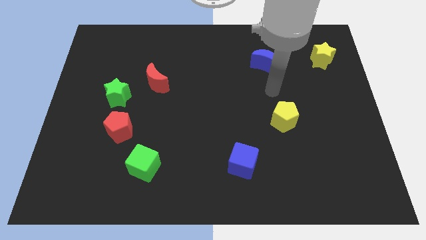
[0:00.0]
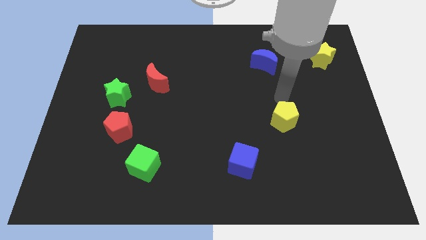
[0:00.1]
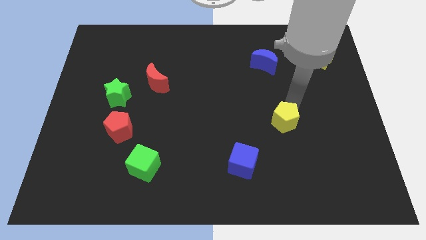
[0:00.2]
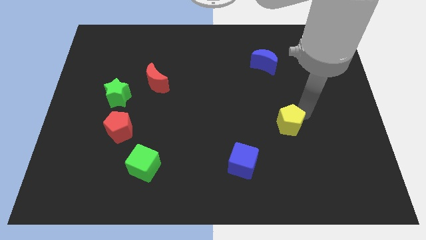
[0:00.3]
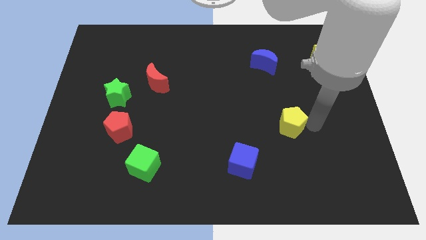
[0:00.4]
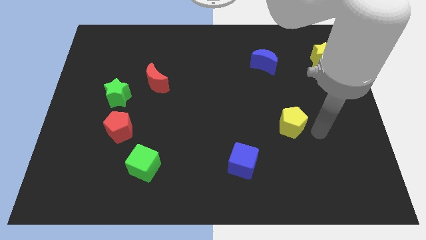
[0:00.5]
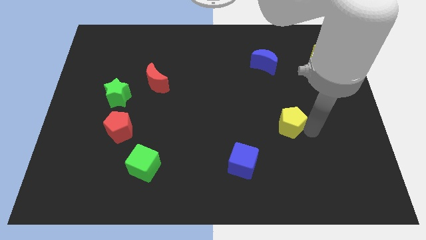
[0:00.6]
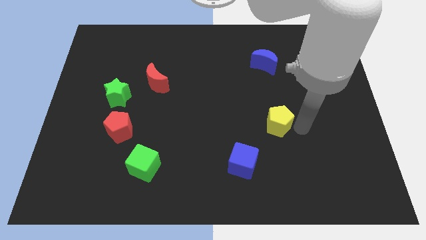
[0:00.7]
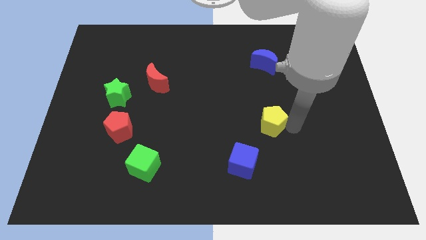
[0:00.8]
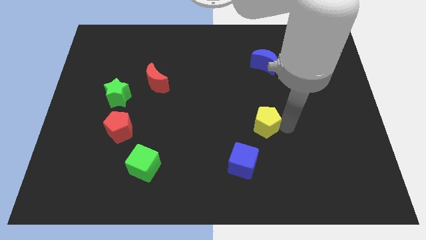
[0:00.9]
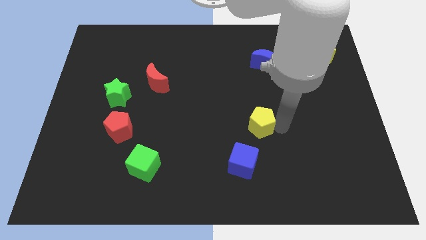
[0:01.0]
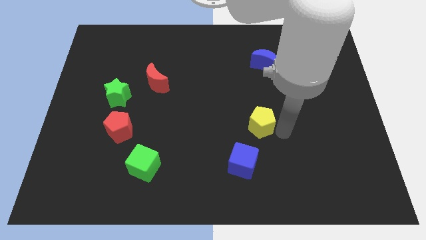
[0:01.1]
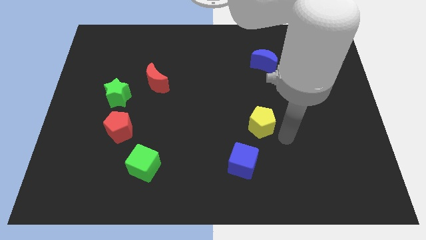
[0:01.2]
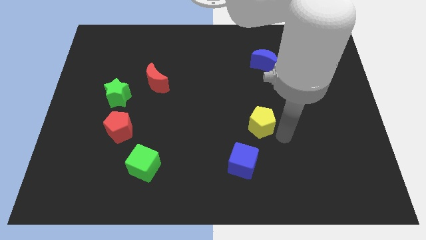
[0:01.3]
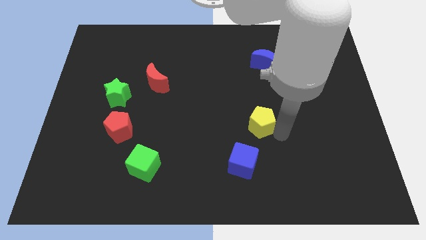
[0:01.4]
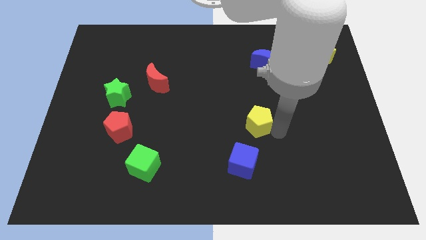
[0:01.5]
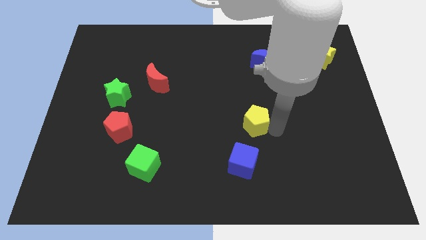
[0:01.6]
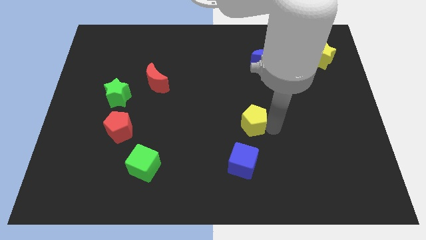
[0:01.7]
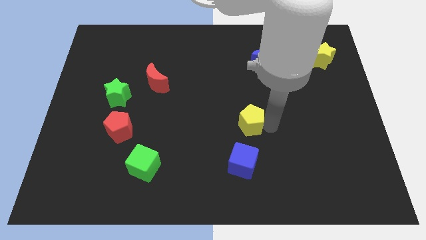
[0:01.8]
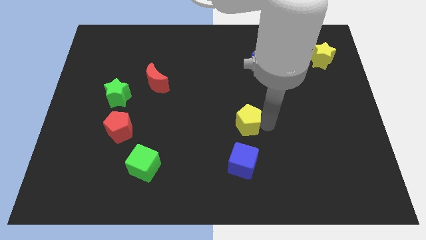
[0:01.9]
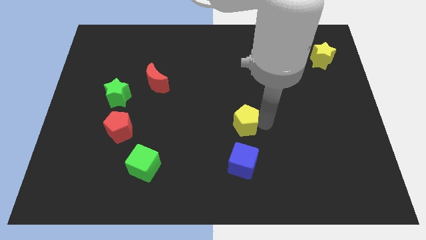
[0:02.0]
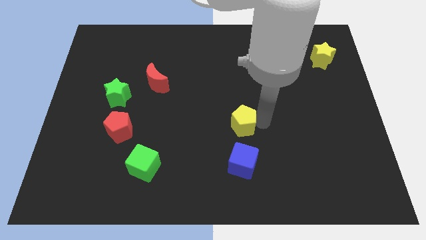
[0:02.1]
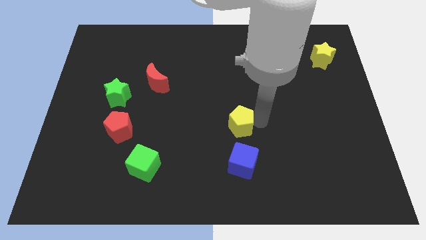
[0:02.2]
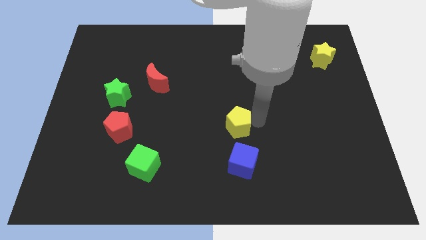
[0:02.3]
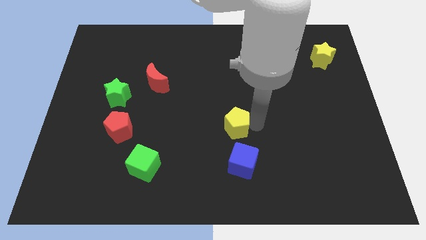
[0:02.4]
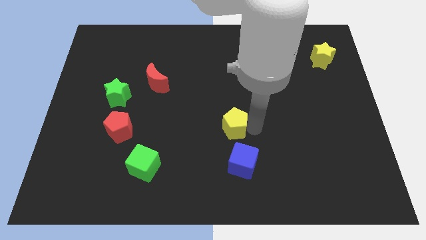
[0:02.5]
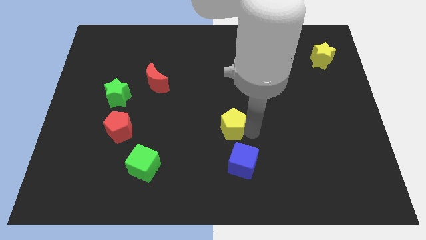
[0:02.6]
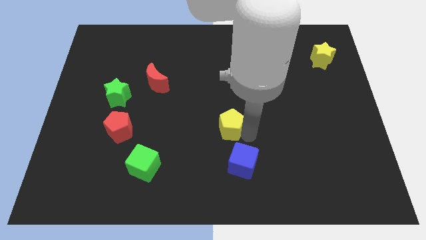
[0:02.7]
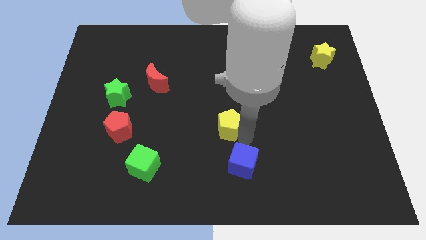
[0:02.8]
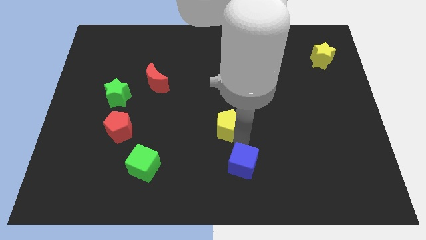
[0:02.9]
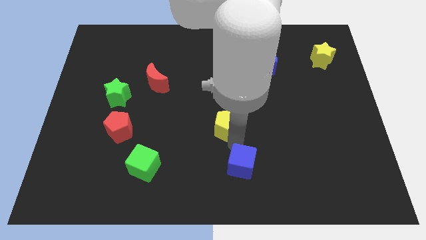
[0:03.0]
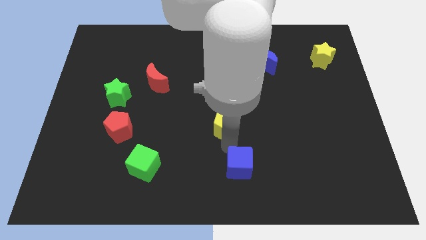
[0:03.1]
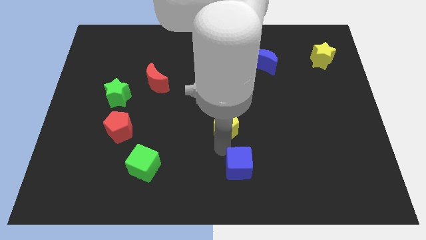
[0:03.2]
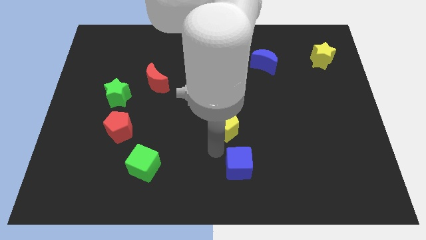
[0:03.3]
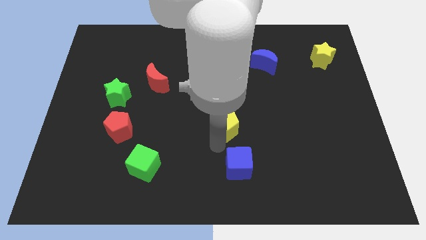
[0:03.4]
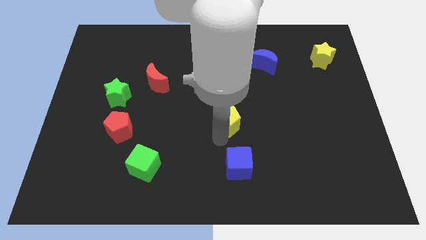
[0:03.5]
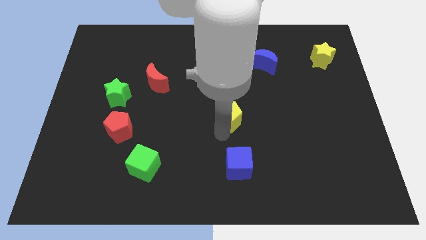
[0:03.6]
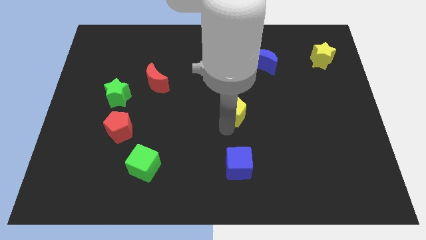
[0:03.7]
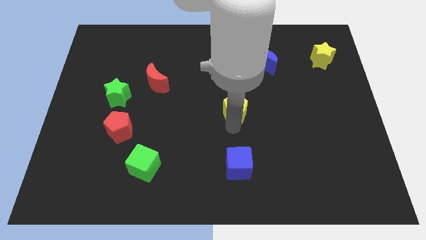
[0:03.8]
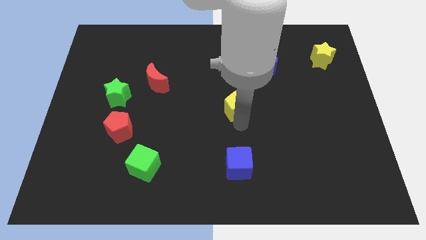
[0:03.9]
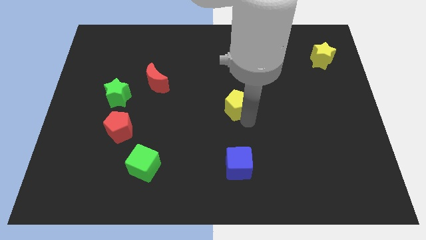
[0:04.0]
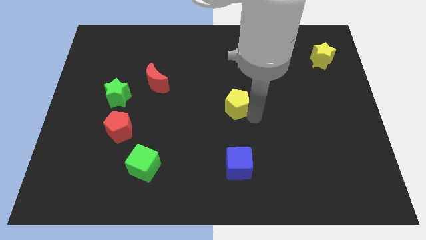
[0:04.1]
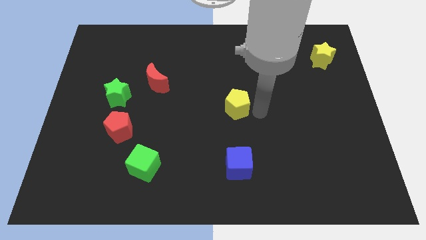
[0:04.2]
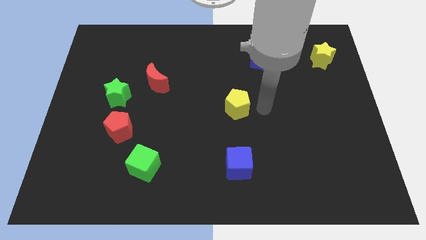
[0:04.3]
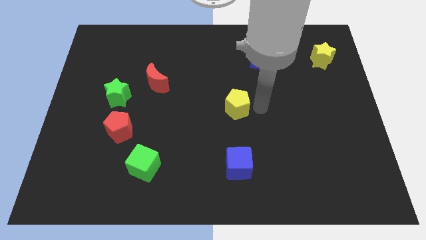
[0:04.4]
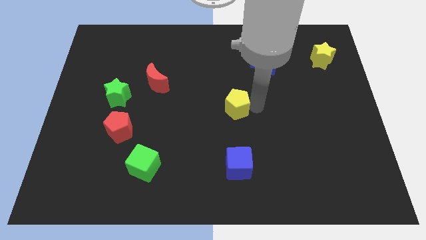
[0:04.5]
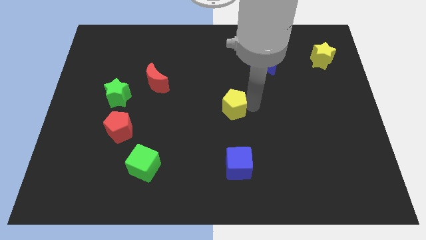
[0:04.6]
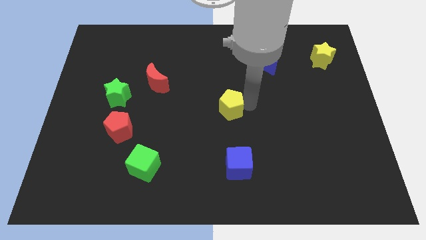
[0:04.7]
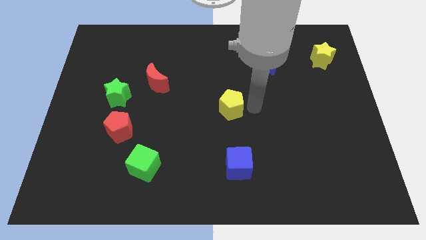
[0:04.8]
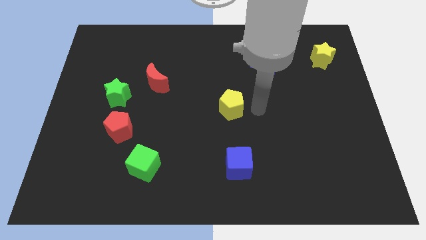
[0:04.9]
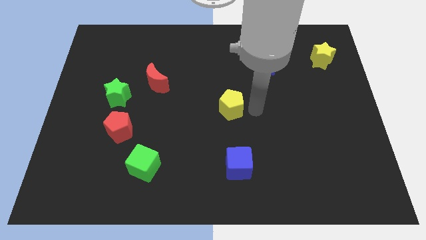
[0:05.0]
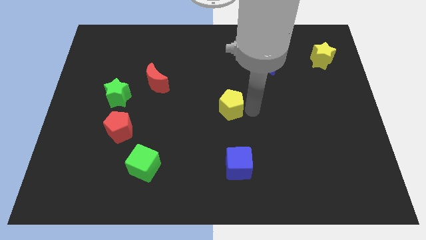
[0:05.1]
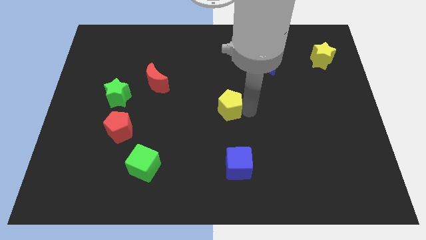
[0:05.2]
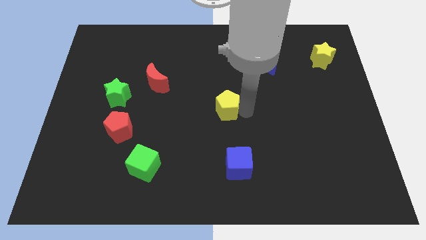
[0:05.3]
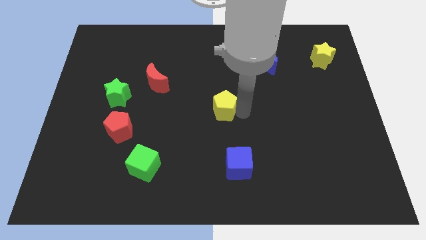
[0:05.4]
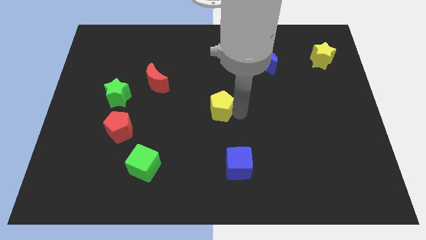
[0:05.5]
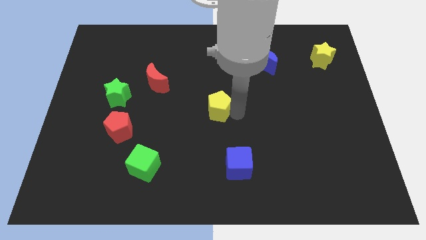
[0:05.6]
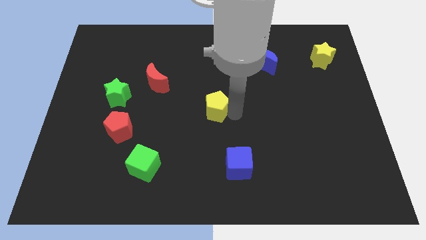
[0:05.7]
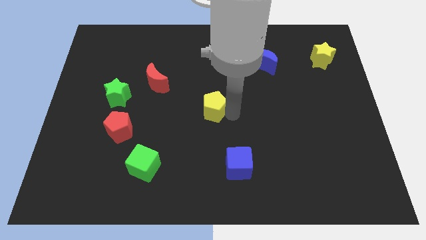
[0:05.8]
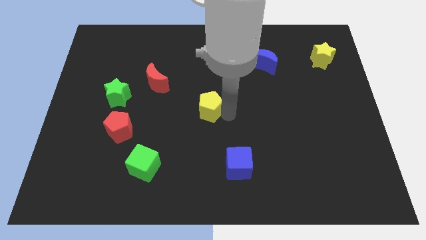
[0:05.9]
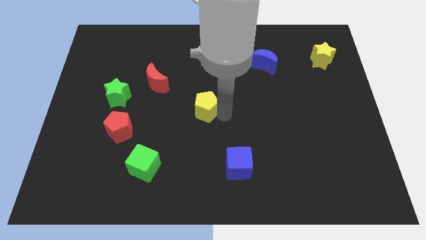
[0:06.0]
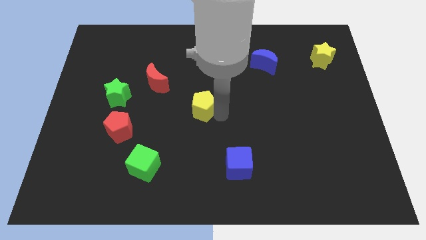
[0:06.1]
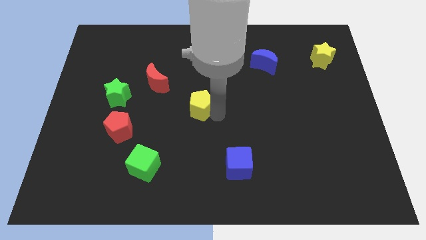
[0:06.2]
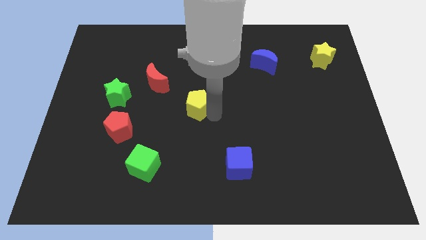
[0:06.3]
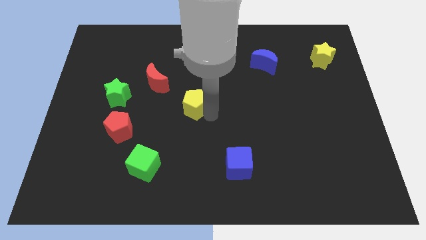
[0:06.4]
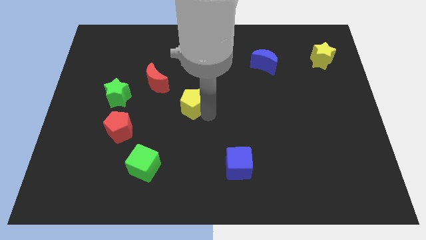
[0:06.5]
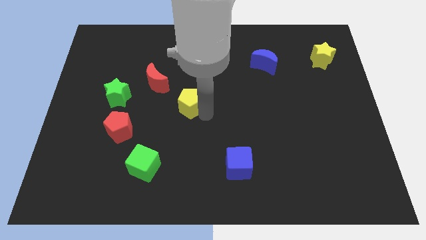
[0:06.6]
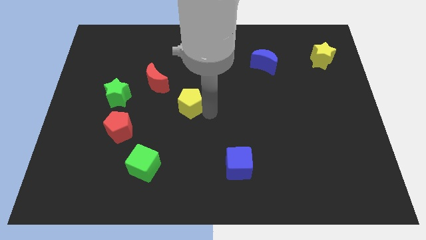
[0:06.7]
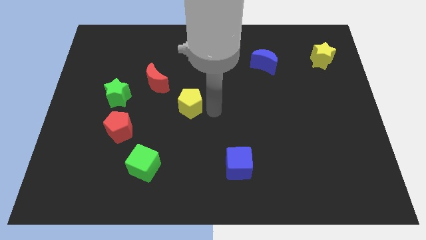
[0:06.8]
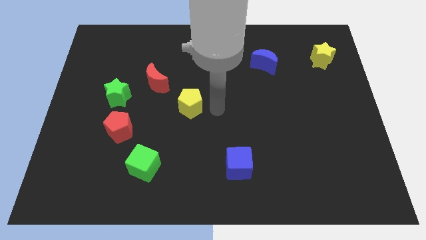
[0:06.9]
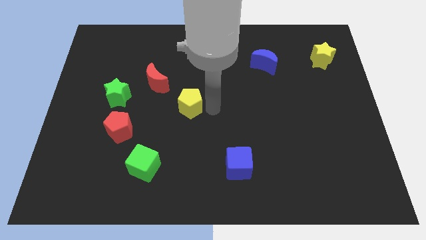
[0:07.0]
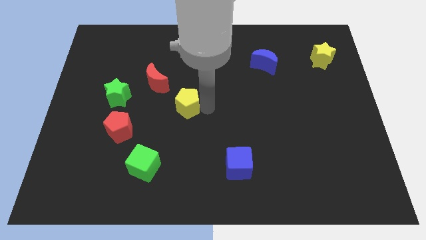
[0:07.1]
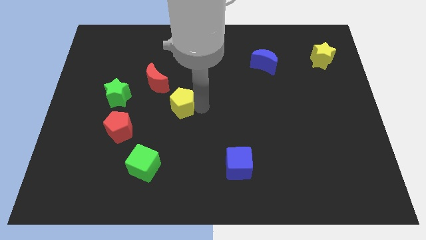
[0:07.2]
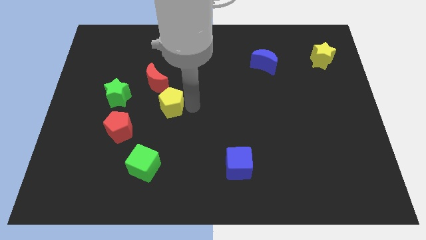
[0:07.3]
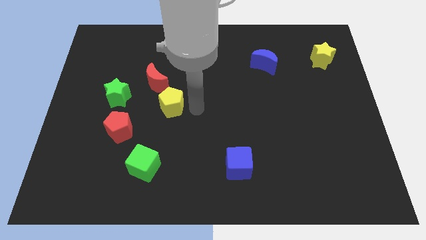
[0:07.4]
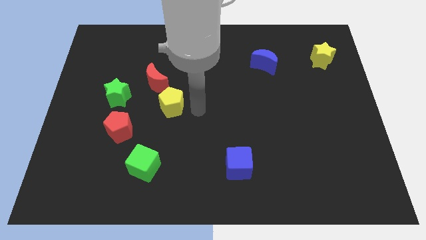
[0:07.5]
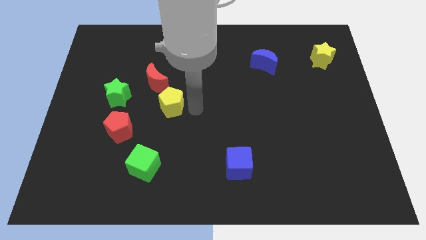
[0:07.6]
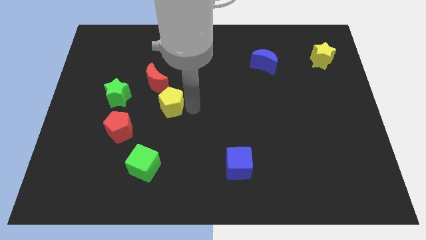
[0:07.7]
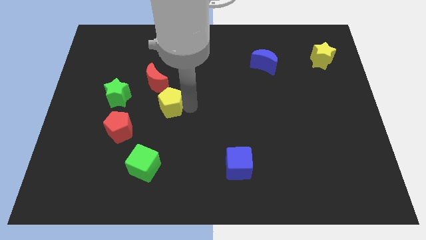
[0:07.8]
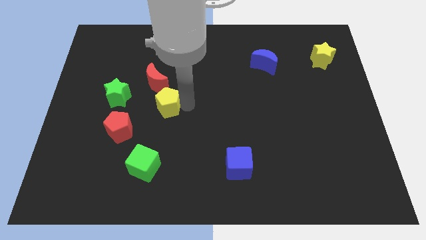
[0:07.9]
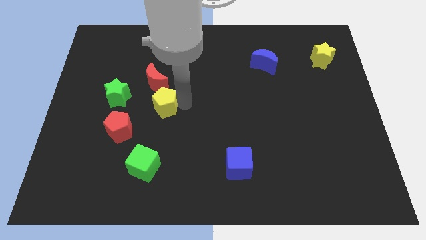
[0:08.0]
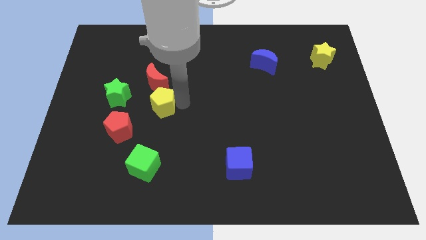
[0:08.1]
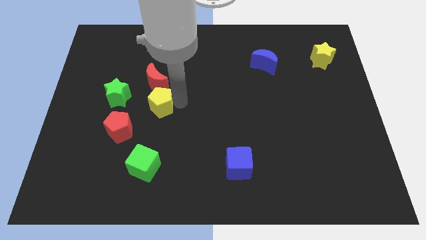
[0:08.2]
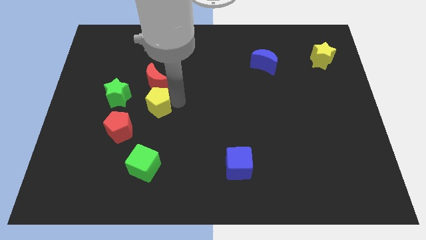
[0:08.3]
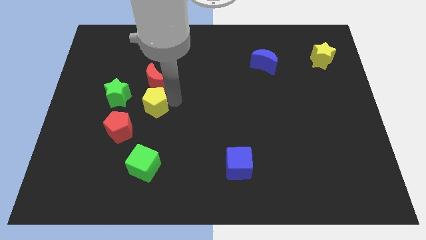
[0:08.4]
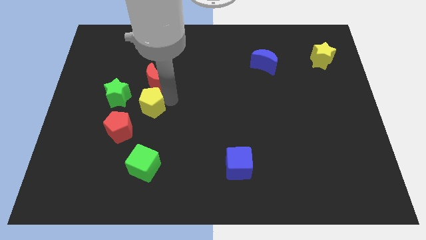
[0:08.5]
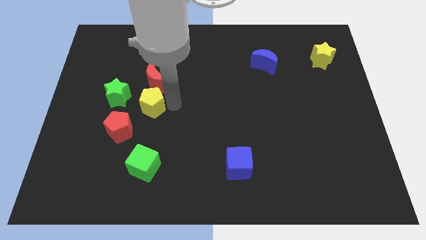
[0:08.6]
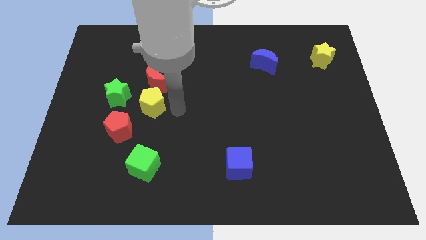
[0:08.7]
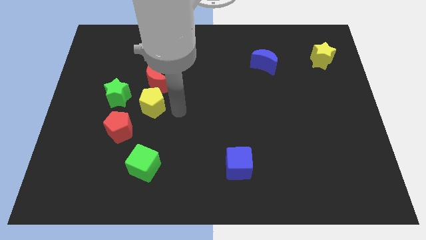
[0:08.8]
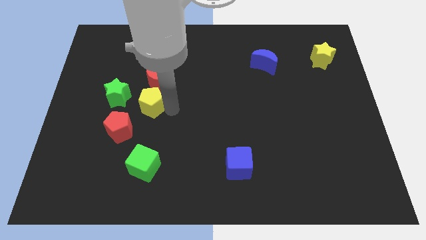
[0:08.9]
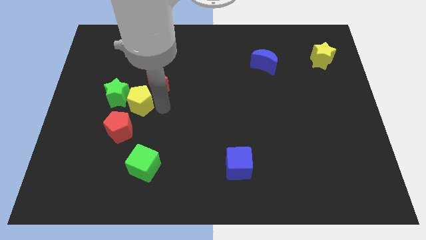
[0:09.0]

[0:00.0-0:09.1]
move the yellow pentagon next to the green star
